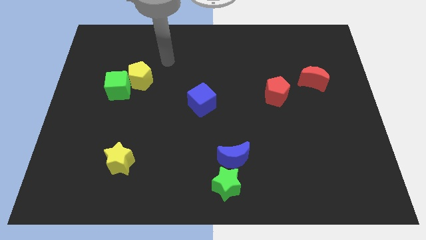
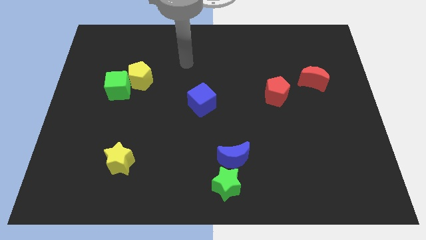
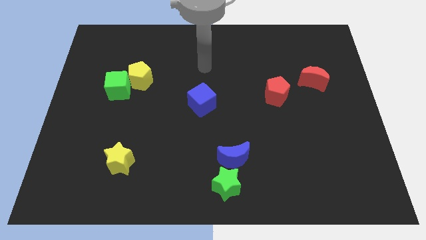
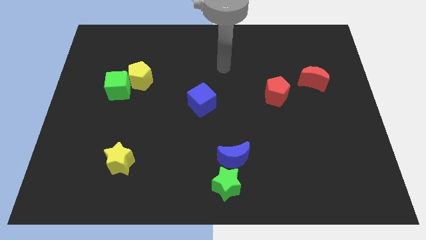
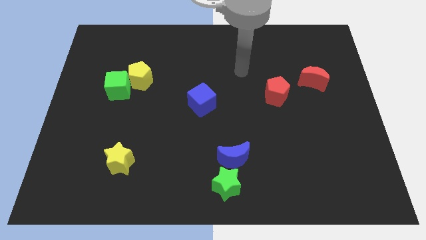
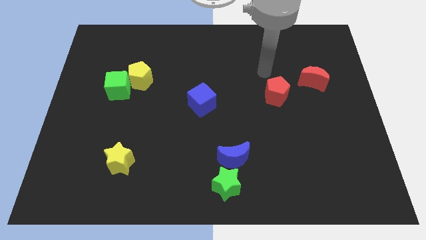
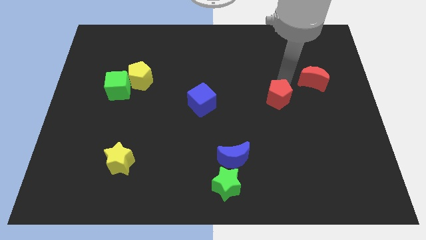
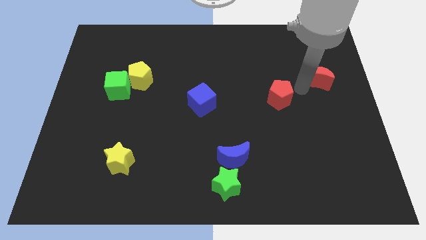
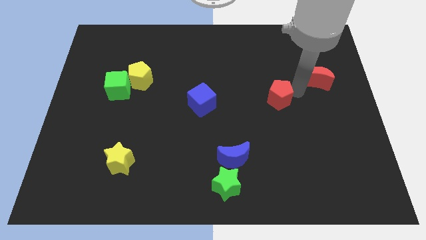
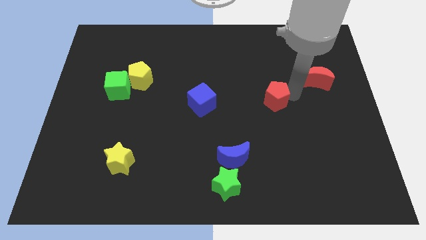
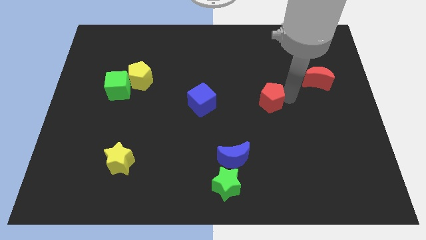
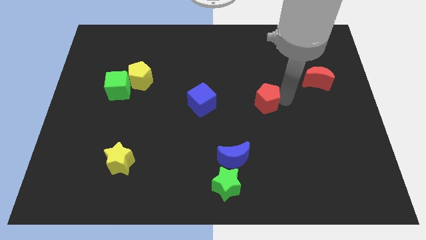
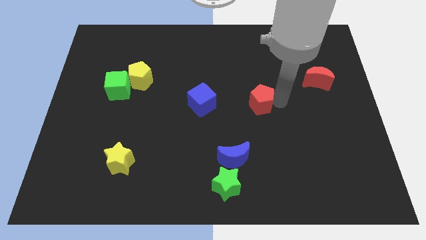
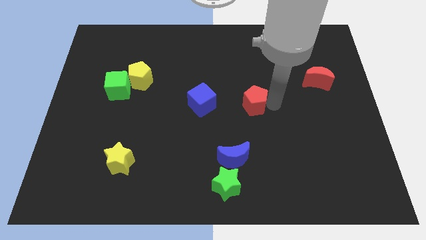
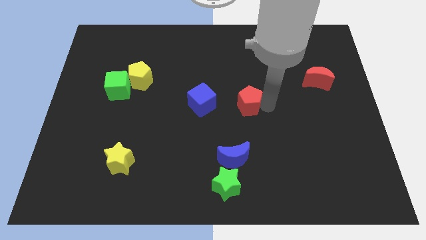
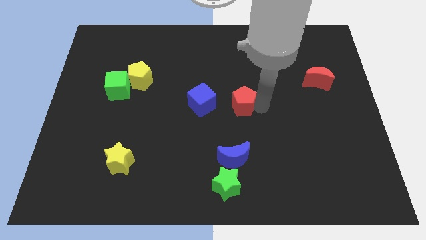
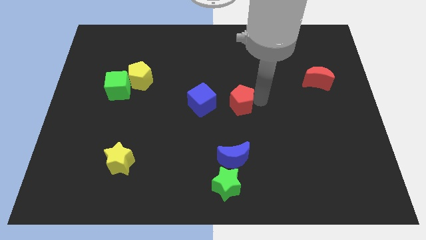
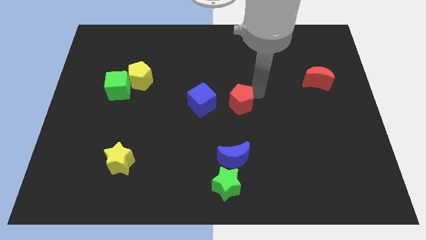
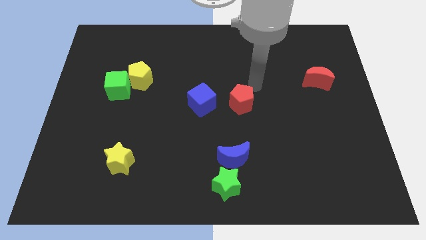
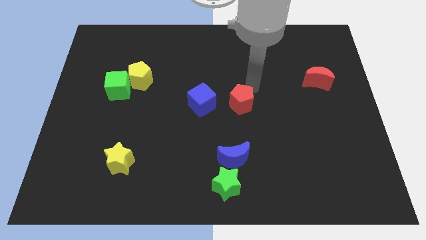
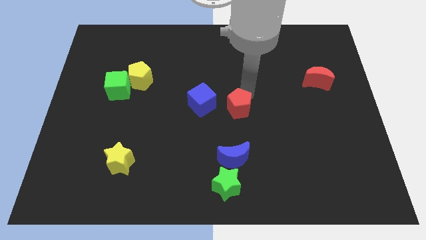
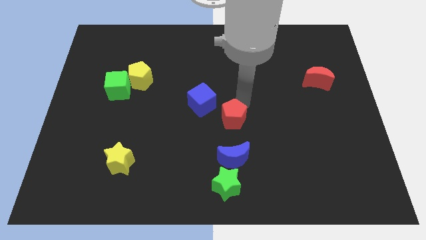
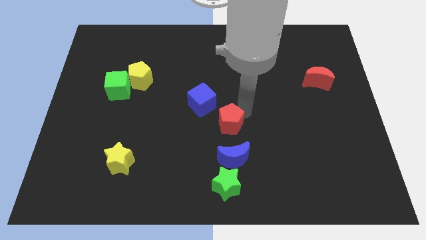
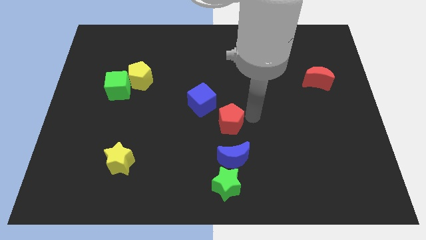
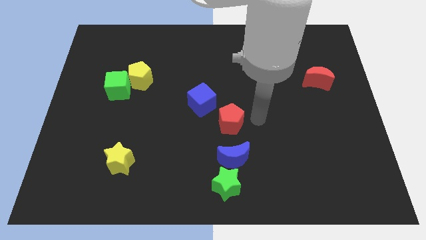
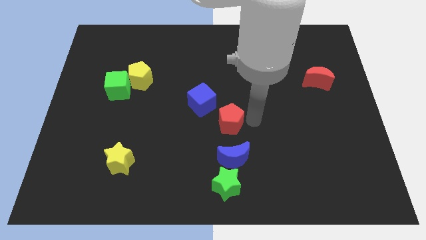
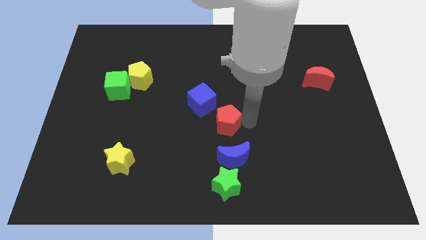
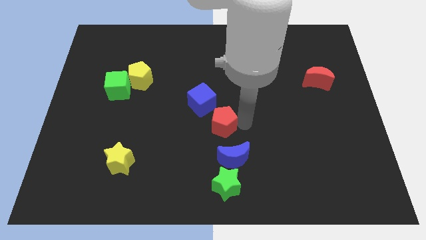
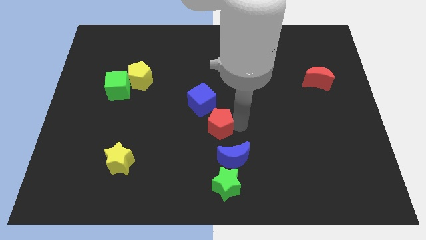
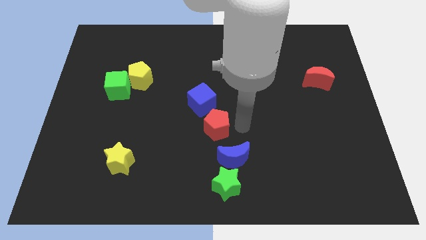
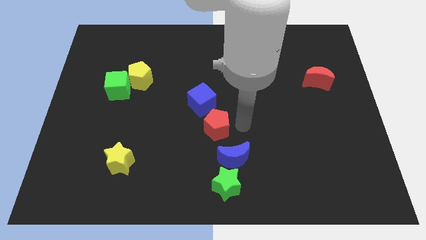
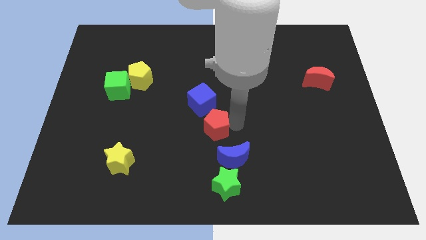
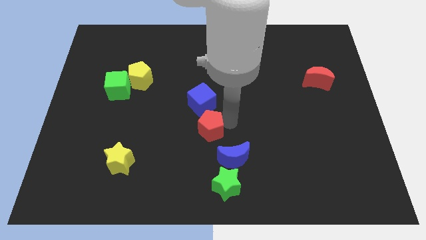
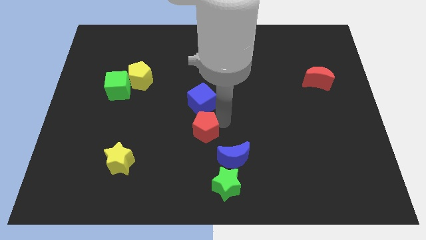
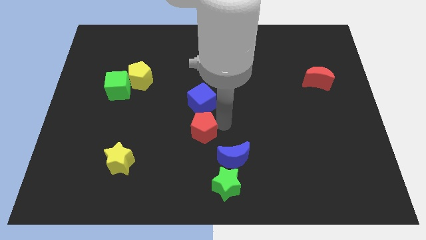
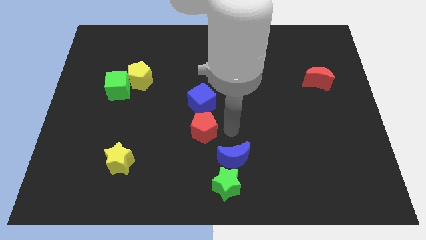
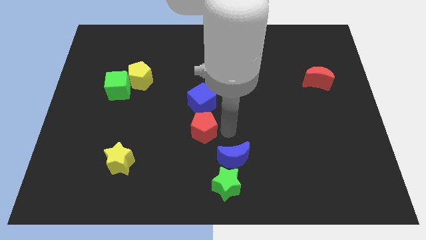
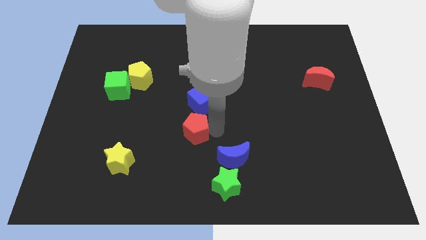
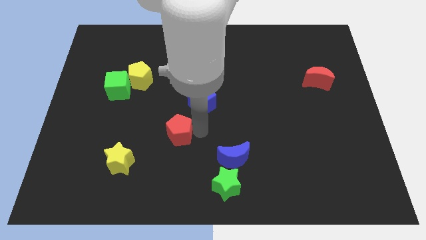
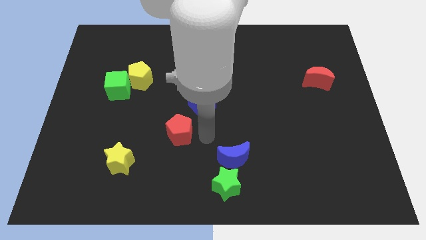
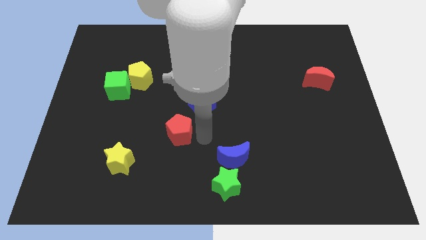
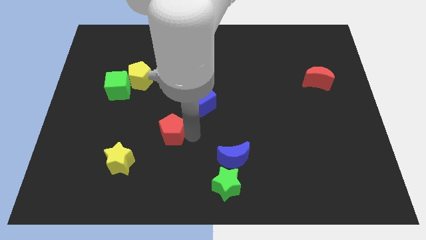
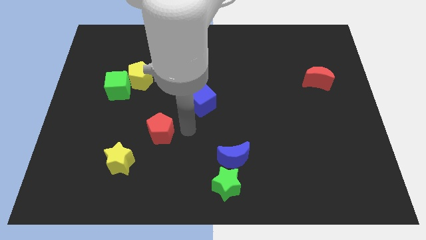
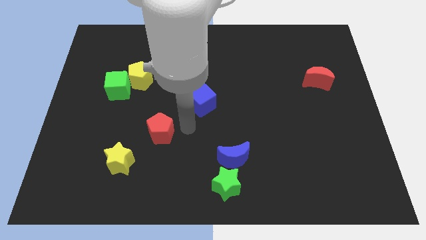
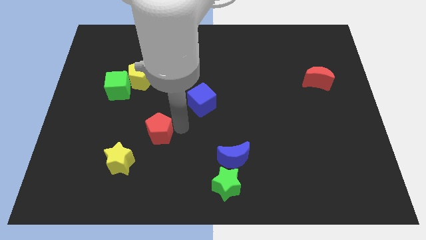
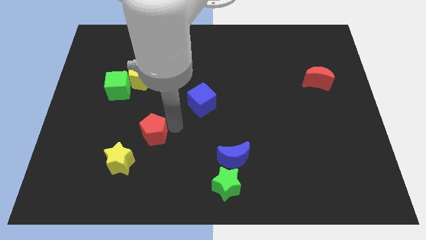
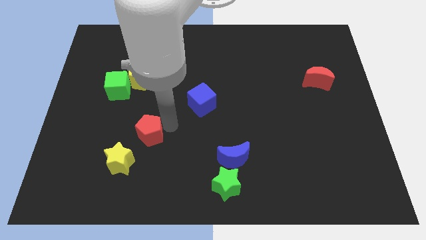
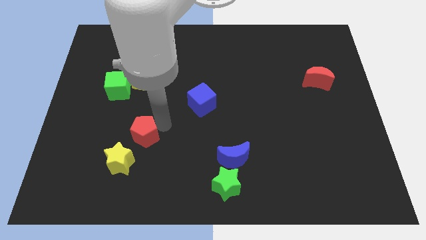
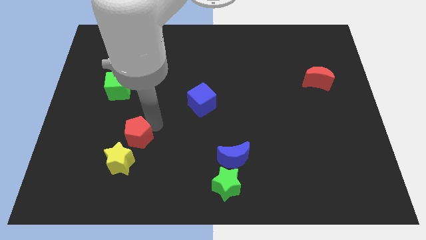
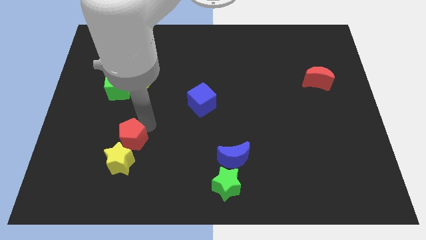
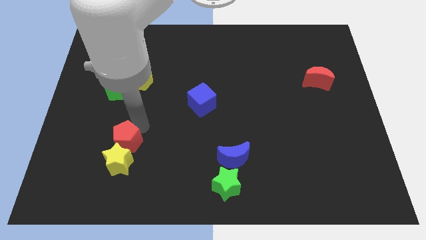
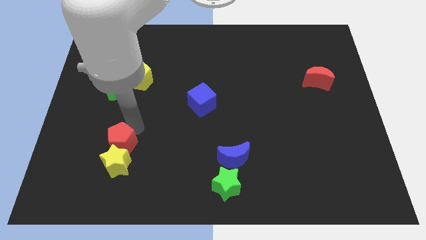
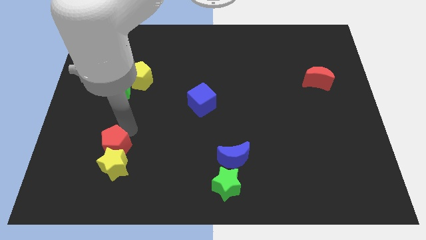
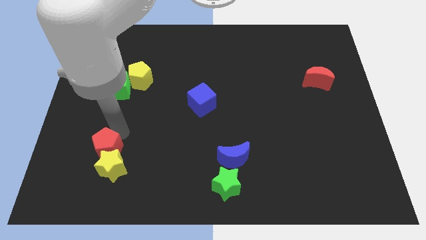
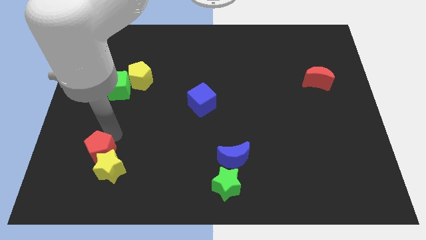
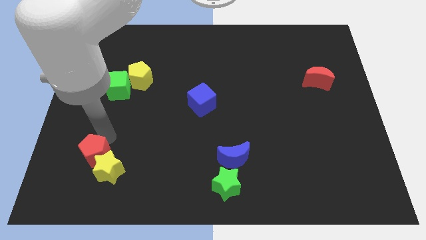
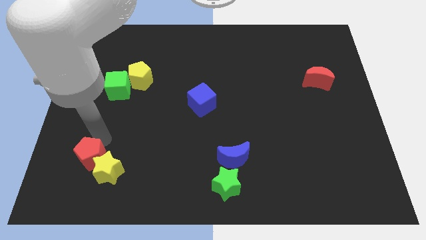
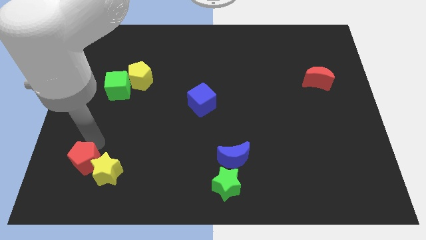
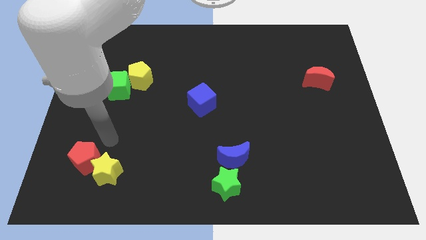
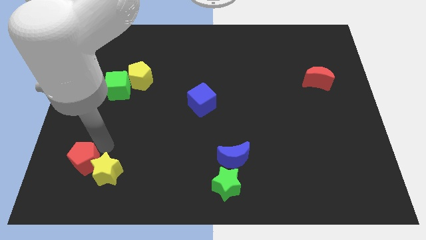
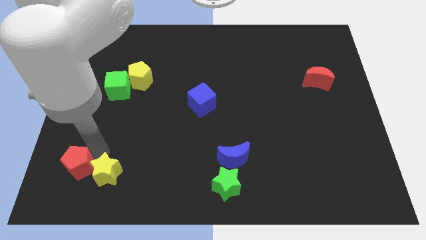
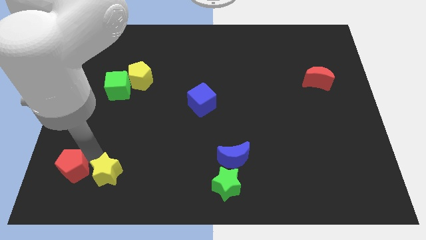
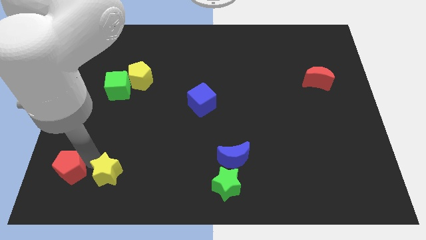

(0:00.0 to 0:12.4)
slide the red pentagon to the bottom left of the board
